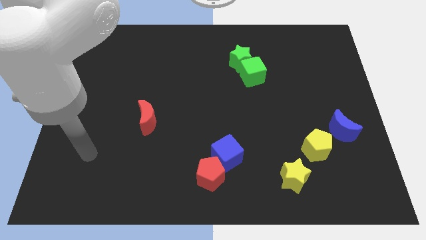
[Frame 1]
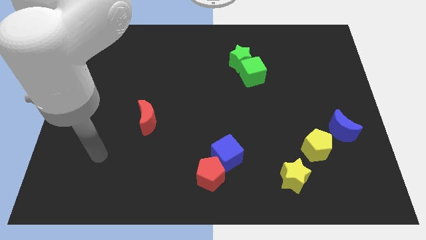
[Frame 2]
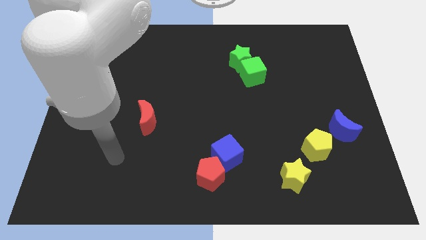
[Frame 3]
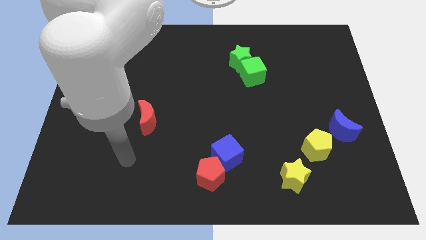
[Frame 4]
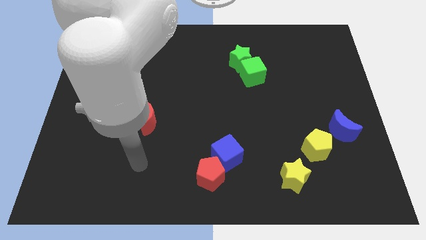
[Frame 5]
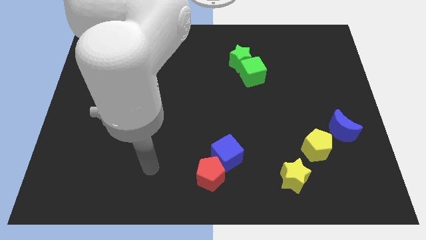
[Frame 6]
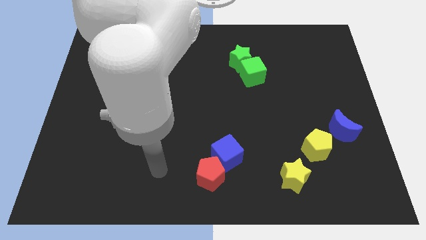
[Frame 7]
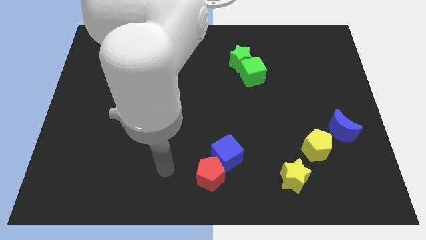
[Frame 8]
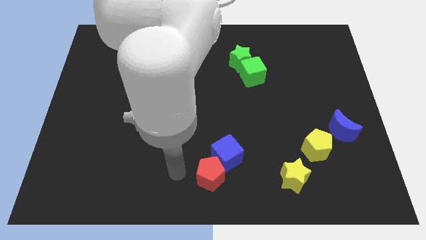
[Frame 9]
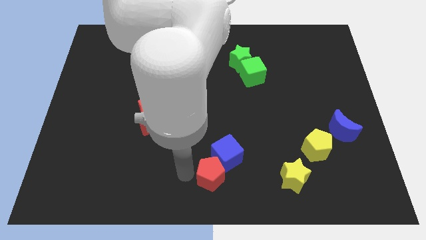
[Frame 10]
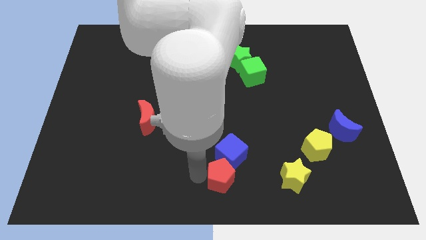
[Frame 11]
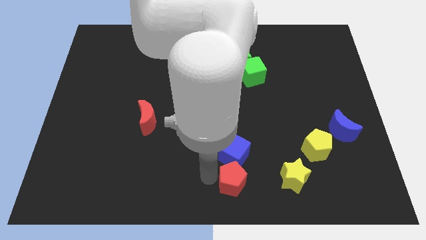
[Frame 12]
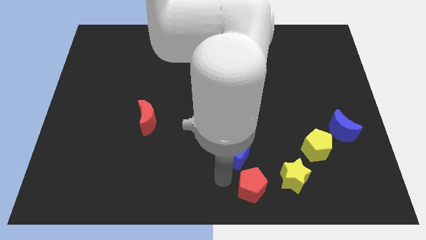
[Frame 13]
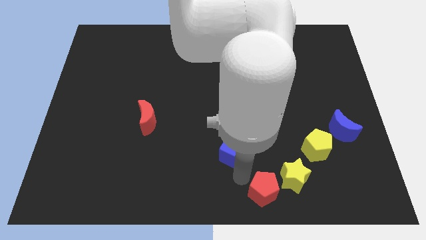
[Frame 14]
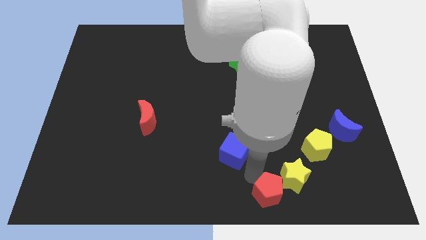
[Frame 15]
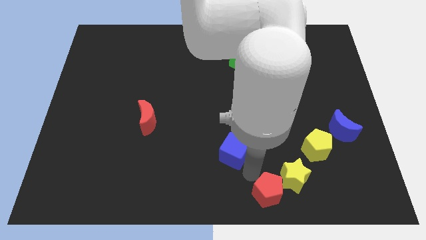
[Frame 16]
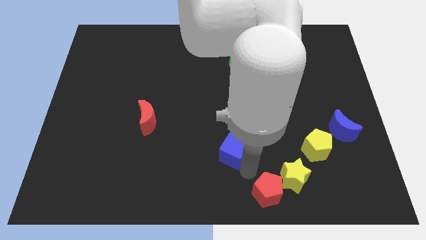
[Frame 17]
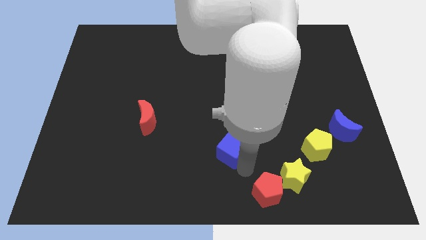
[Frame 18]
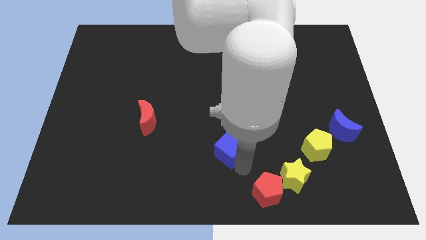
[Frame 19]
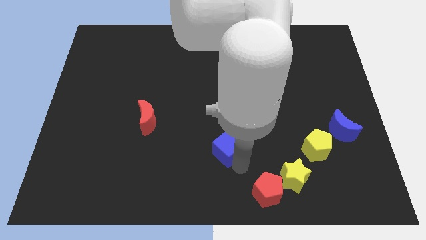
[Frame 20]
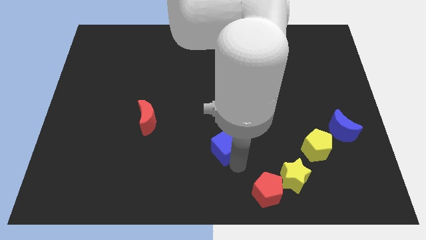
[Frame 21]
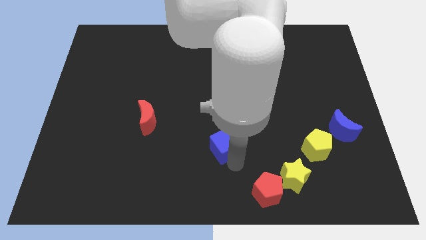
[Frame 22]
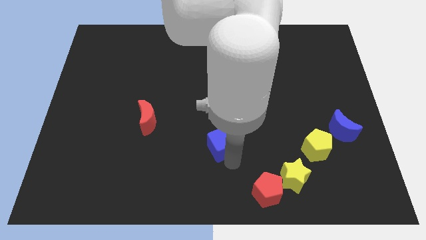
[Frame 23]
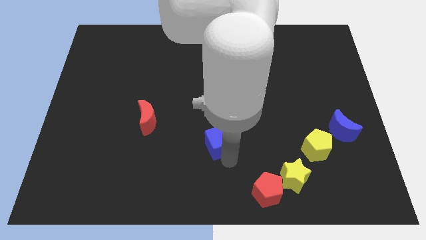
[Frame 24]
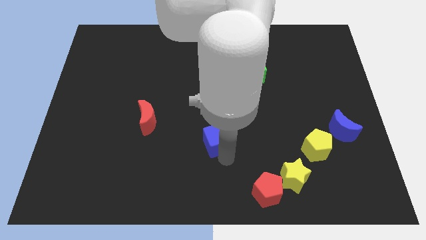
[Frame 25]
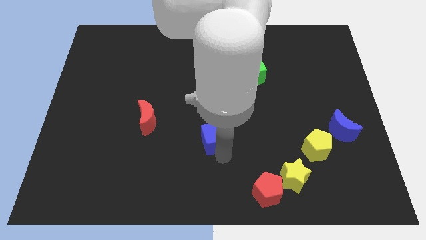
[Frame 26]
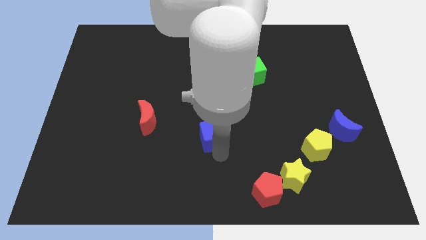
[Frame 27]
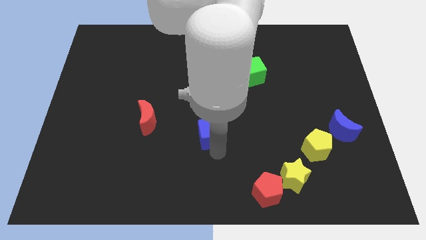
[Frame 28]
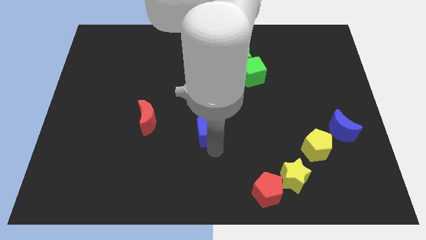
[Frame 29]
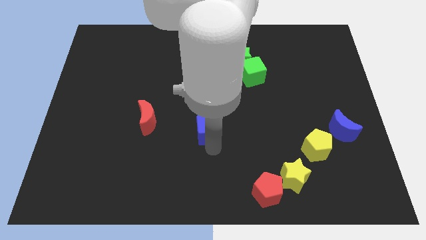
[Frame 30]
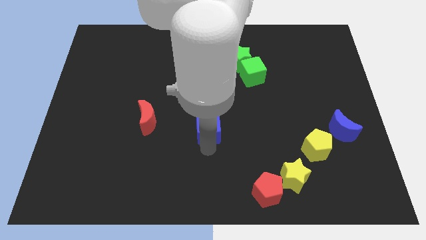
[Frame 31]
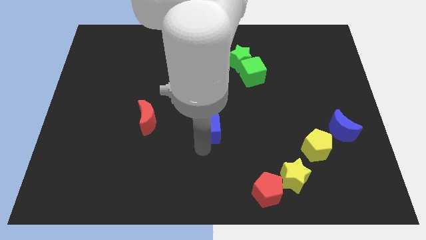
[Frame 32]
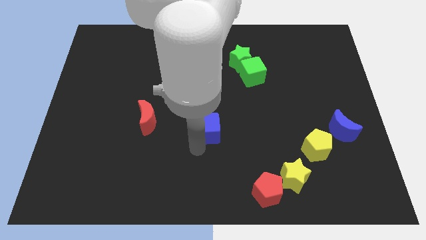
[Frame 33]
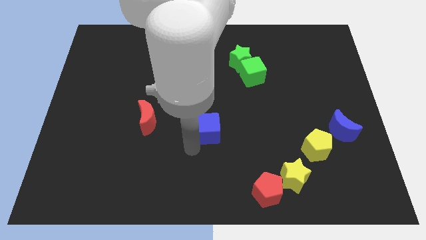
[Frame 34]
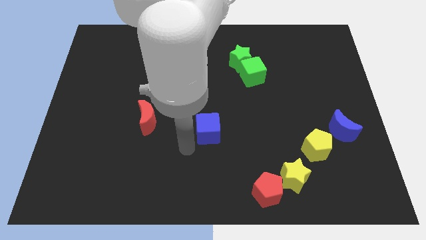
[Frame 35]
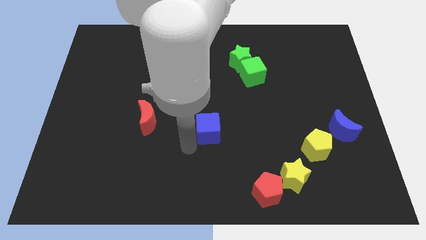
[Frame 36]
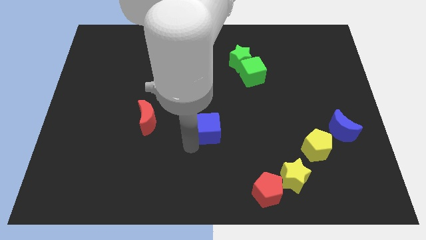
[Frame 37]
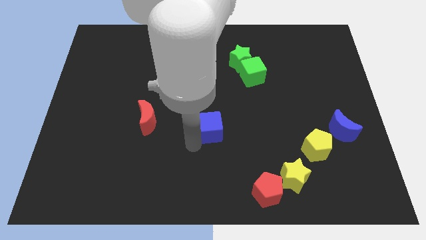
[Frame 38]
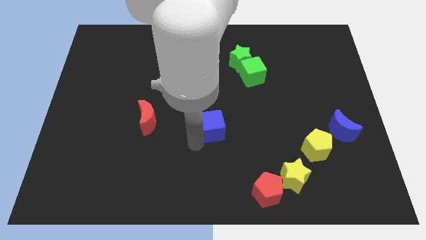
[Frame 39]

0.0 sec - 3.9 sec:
slightly slide the blue cube upwards

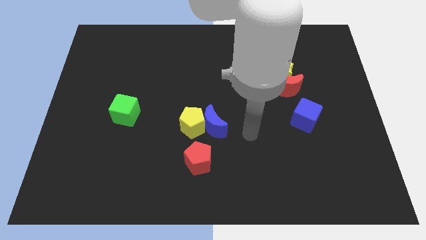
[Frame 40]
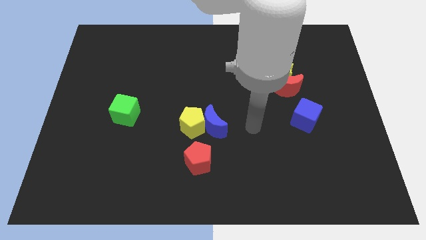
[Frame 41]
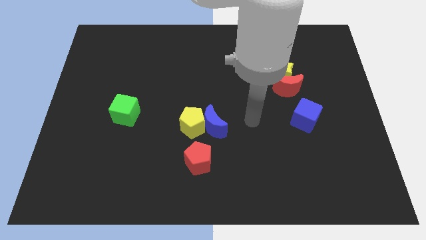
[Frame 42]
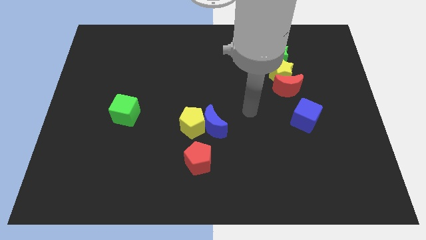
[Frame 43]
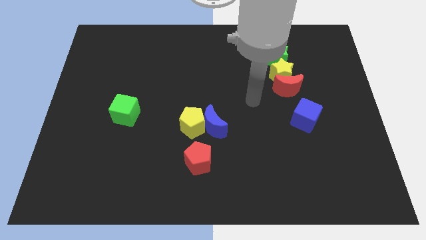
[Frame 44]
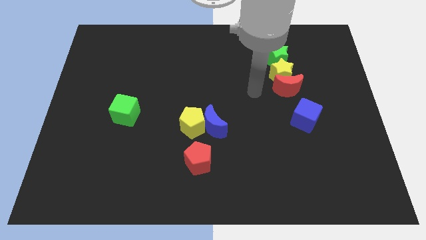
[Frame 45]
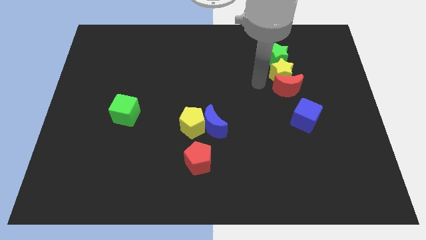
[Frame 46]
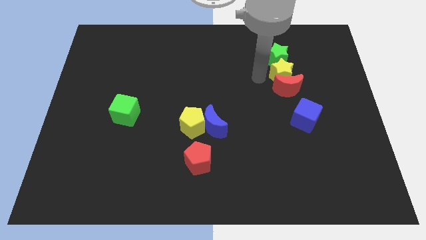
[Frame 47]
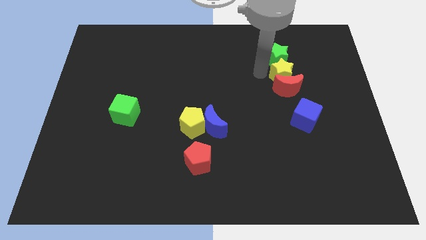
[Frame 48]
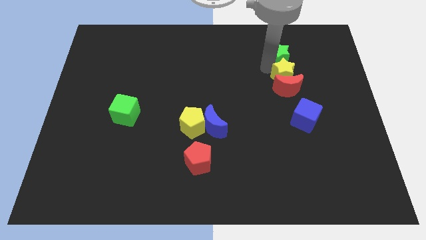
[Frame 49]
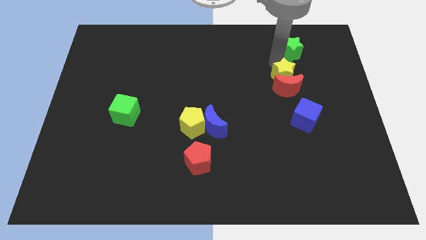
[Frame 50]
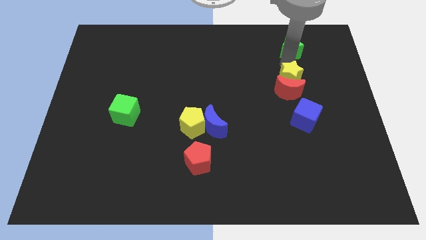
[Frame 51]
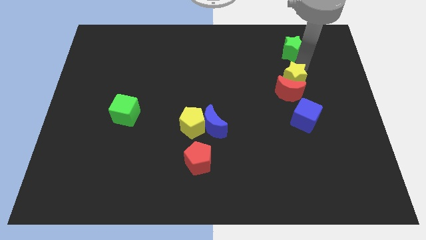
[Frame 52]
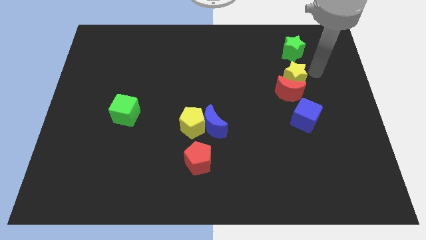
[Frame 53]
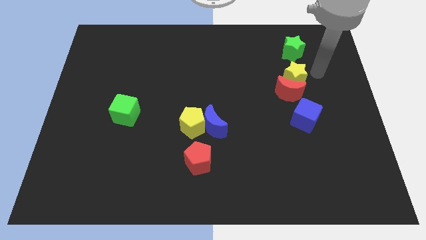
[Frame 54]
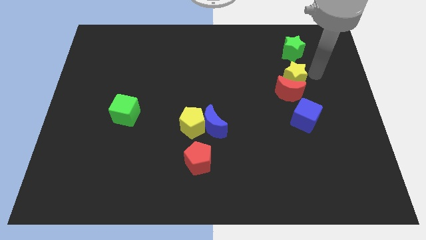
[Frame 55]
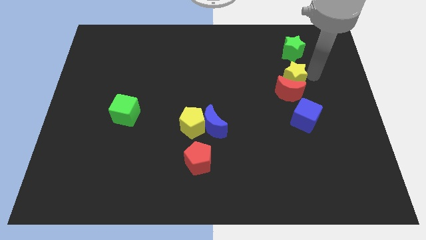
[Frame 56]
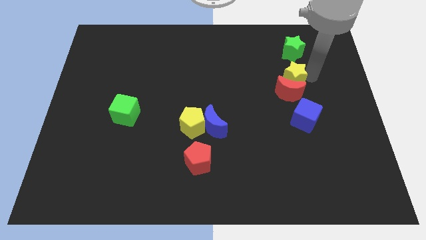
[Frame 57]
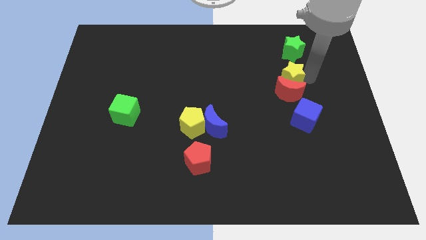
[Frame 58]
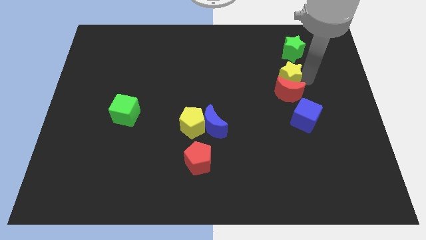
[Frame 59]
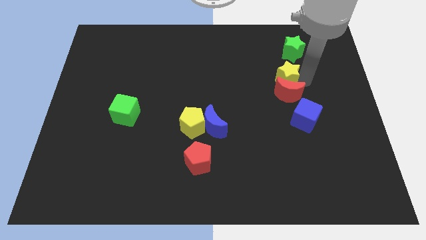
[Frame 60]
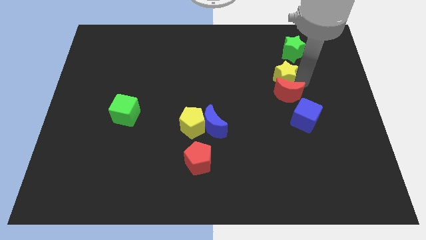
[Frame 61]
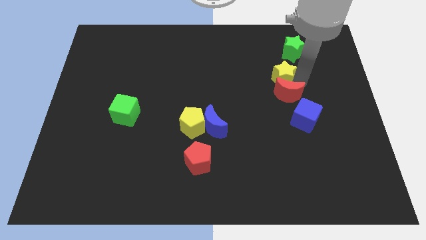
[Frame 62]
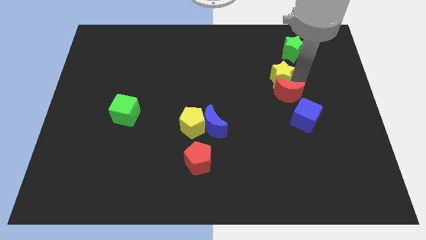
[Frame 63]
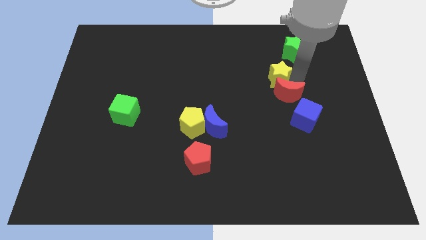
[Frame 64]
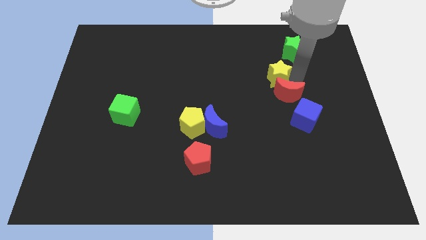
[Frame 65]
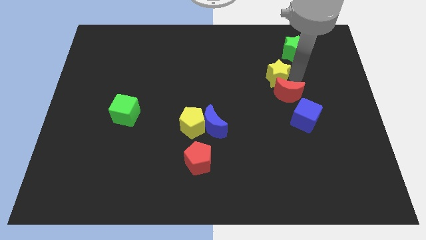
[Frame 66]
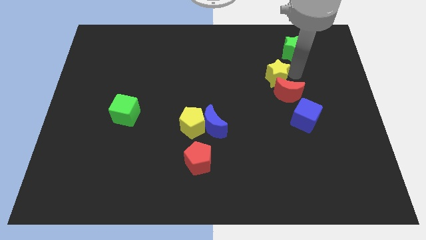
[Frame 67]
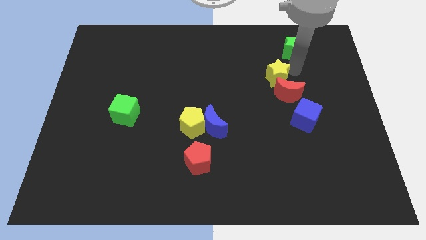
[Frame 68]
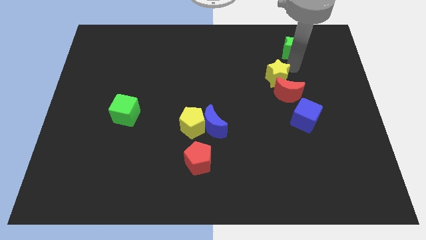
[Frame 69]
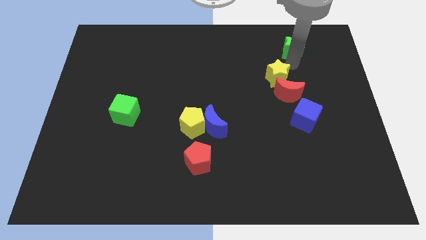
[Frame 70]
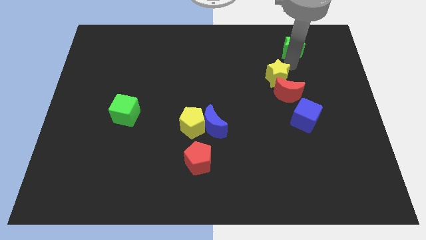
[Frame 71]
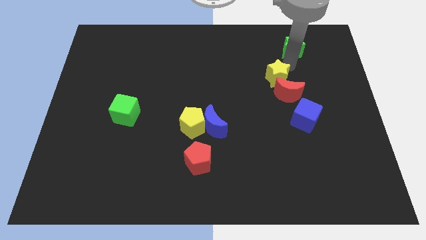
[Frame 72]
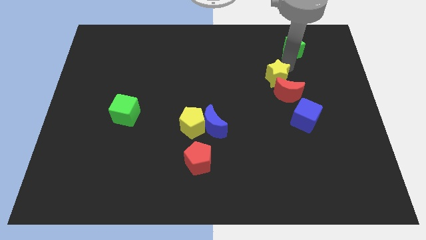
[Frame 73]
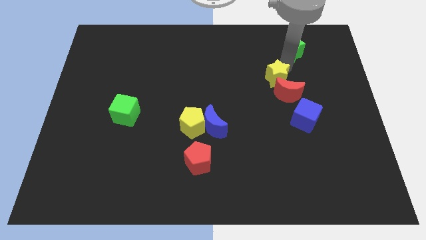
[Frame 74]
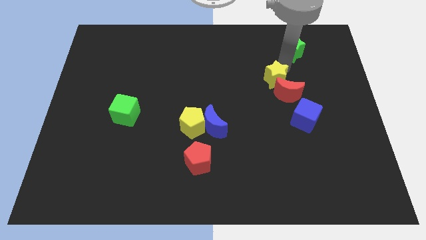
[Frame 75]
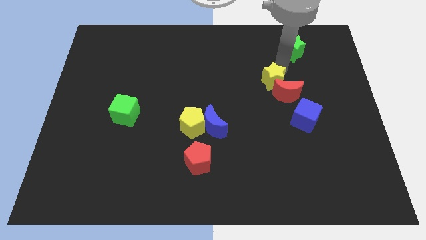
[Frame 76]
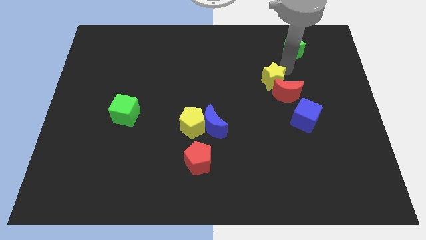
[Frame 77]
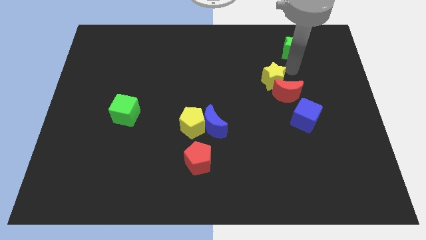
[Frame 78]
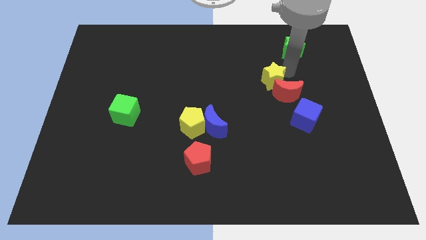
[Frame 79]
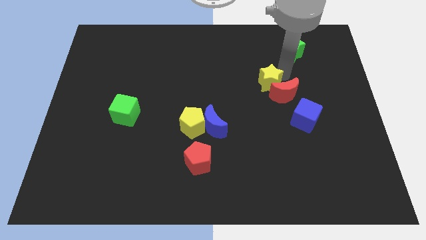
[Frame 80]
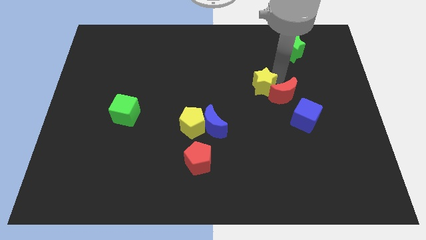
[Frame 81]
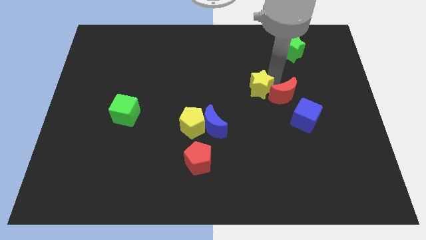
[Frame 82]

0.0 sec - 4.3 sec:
push the yellow star downwards and to the left a little
